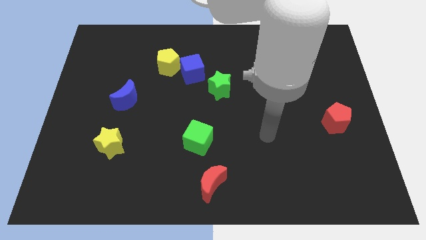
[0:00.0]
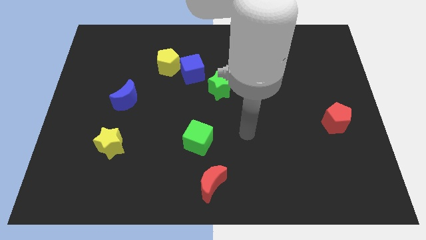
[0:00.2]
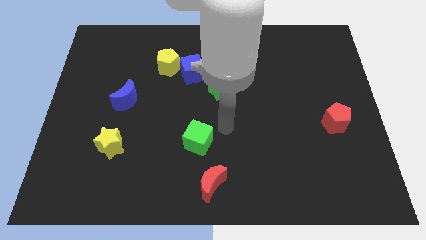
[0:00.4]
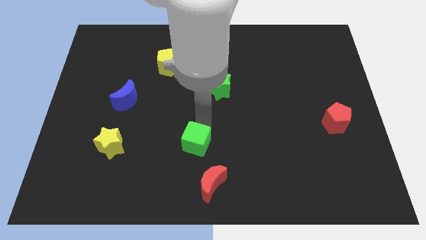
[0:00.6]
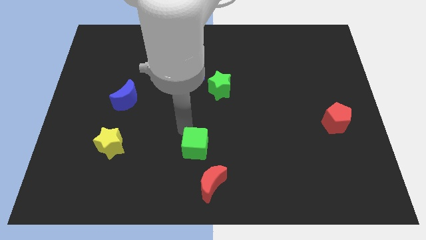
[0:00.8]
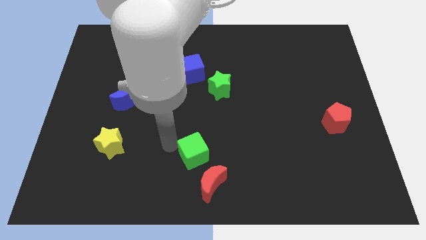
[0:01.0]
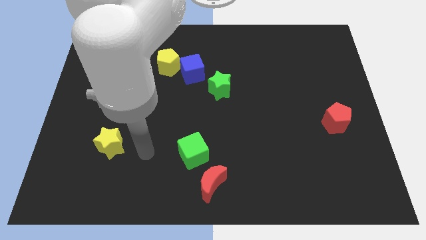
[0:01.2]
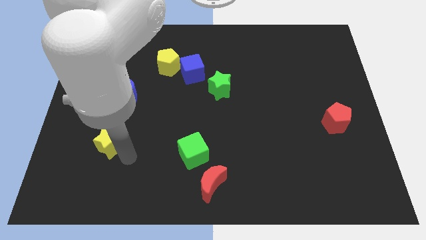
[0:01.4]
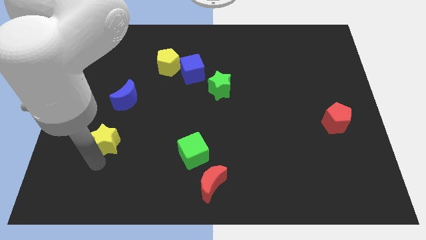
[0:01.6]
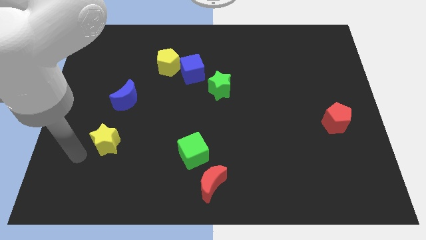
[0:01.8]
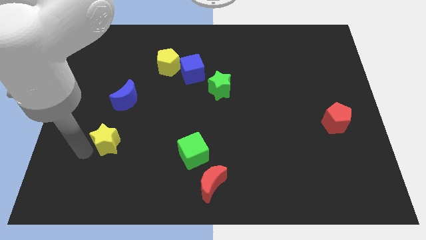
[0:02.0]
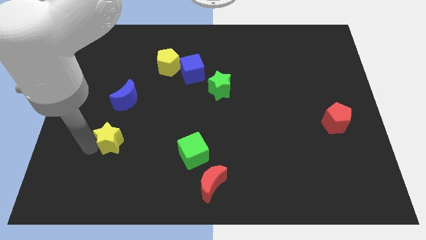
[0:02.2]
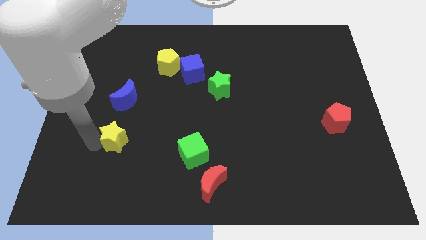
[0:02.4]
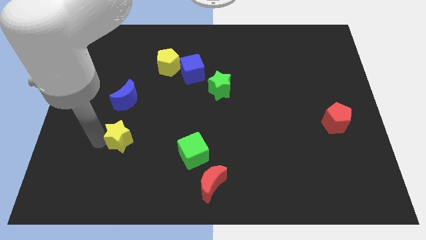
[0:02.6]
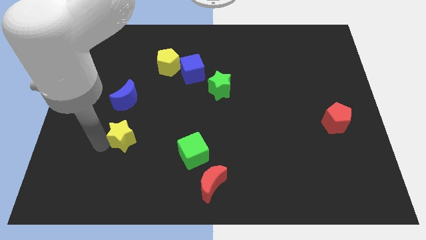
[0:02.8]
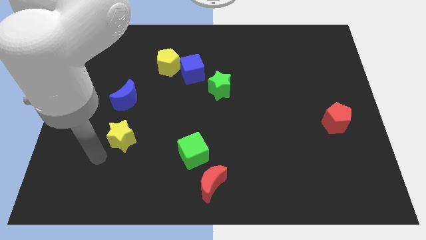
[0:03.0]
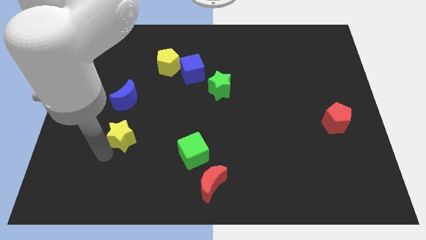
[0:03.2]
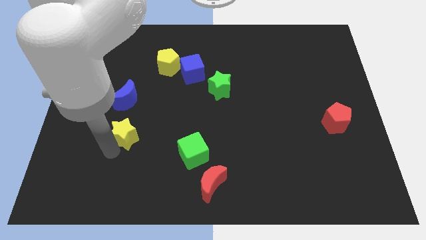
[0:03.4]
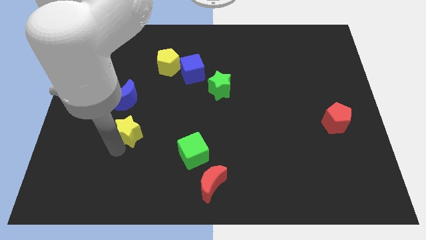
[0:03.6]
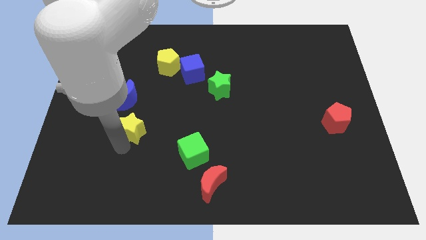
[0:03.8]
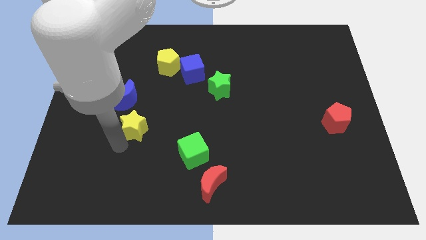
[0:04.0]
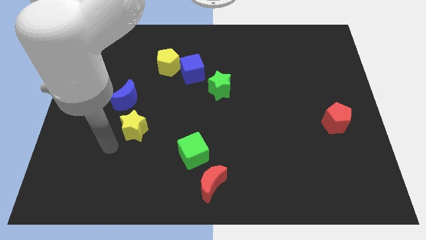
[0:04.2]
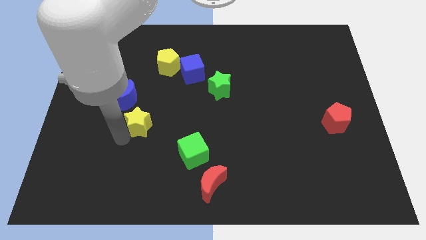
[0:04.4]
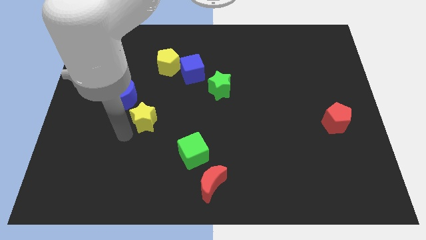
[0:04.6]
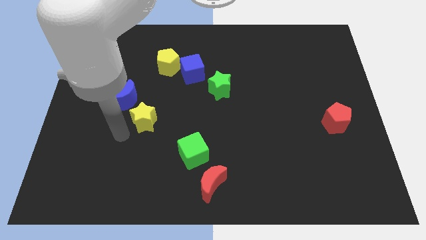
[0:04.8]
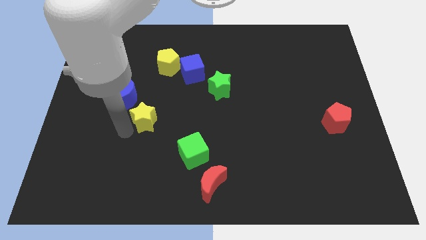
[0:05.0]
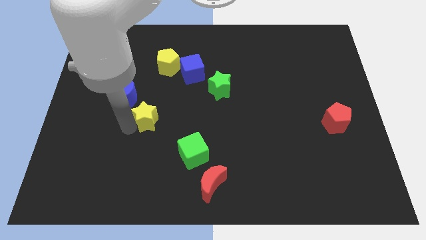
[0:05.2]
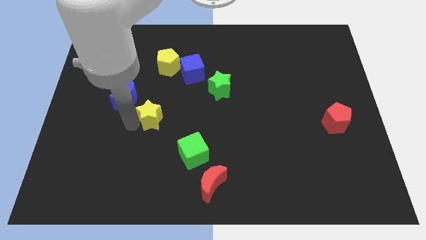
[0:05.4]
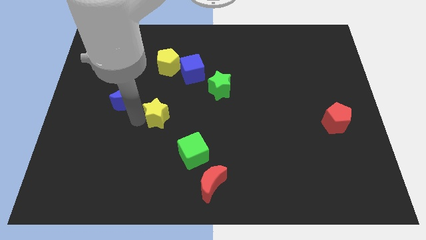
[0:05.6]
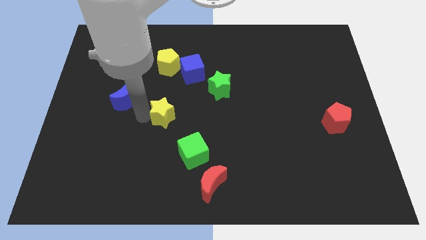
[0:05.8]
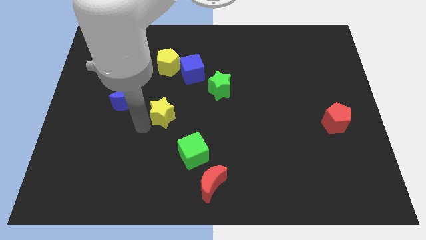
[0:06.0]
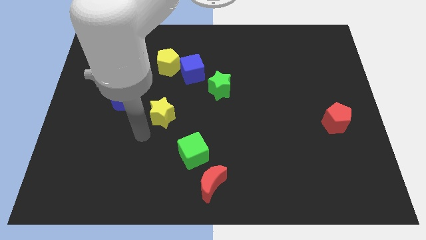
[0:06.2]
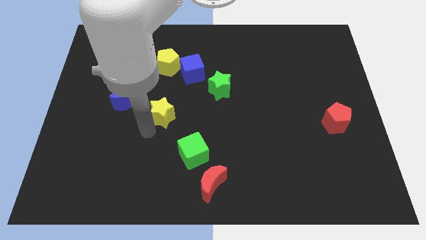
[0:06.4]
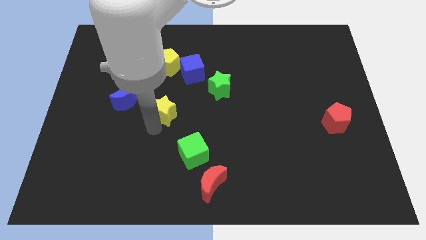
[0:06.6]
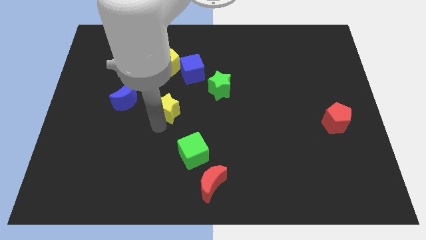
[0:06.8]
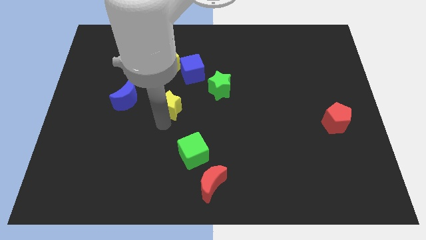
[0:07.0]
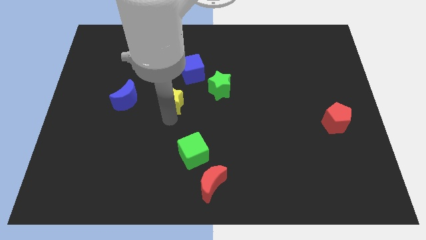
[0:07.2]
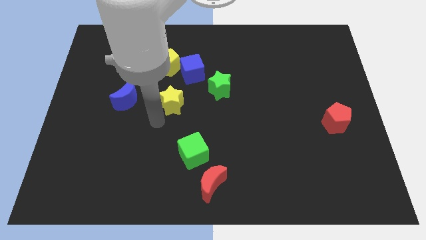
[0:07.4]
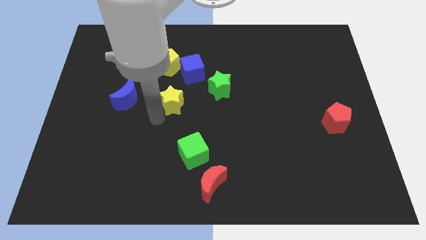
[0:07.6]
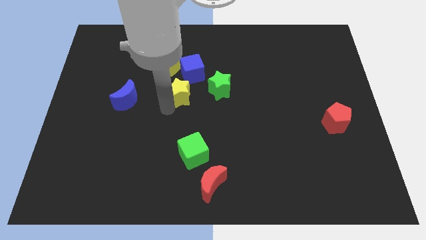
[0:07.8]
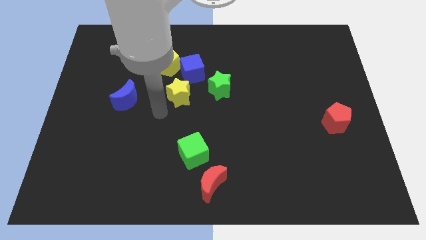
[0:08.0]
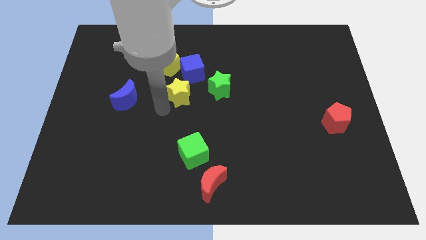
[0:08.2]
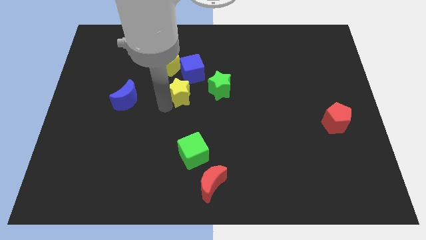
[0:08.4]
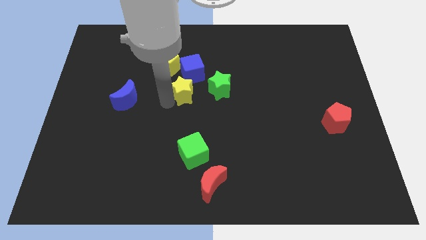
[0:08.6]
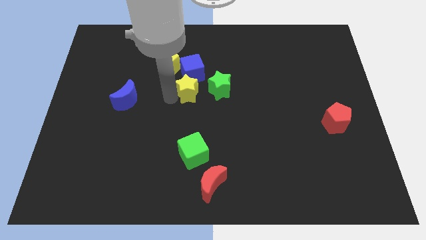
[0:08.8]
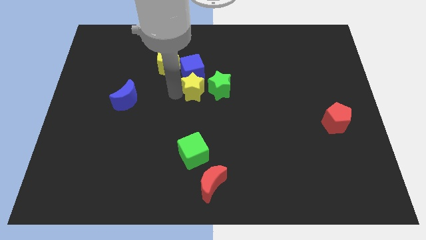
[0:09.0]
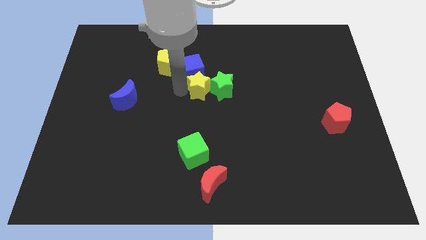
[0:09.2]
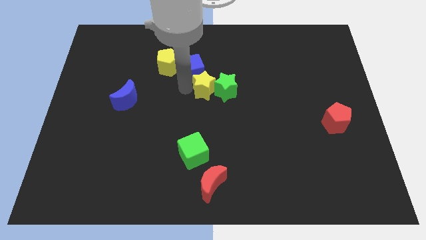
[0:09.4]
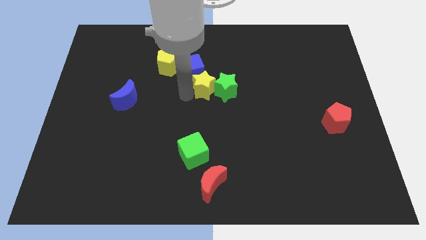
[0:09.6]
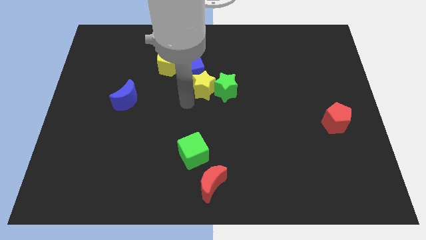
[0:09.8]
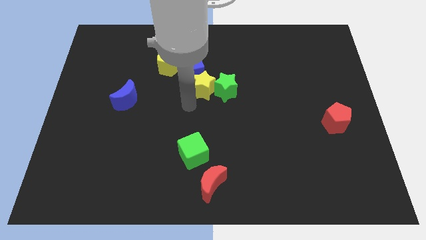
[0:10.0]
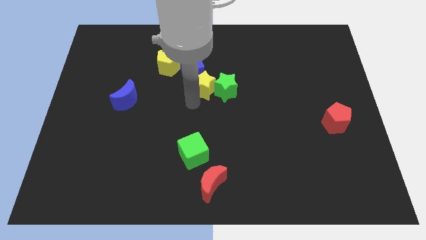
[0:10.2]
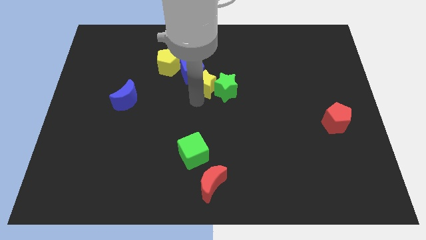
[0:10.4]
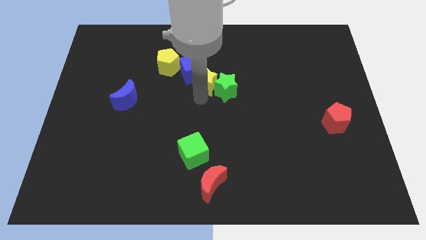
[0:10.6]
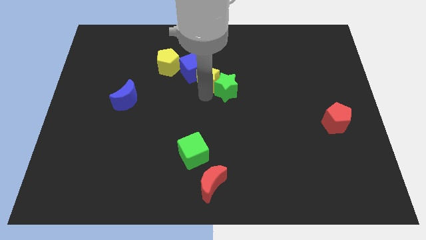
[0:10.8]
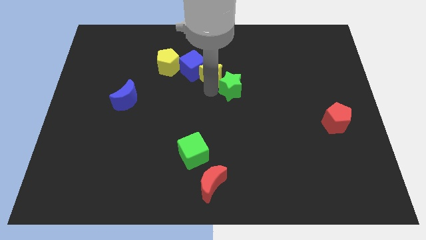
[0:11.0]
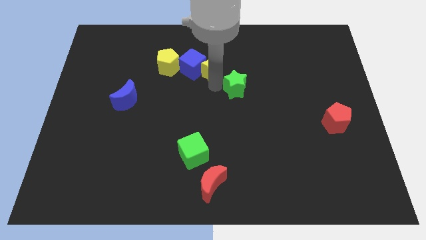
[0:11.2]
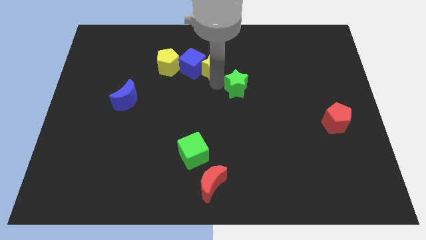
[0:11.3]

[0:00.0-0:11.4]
push the yellow star to the top right side of the blue cube

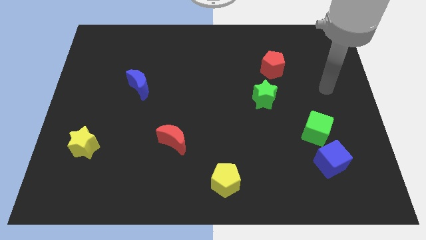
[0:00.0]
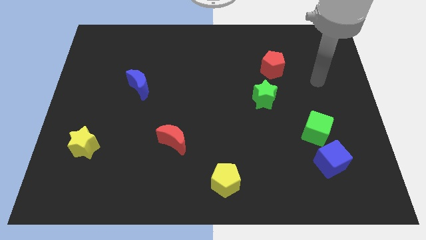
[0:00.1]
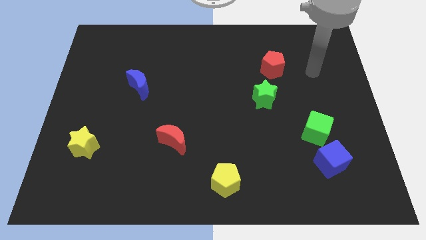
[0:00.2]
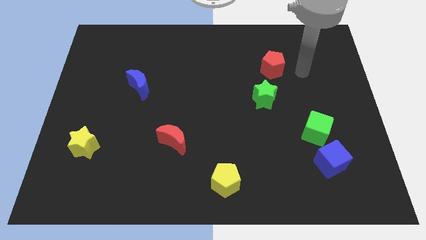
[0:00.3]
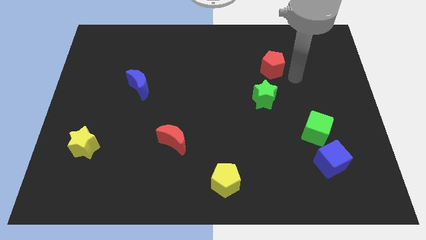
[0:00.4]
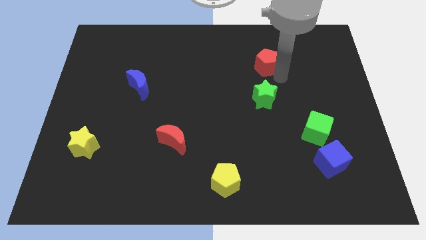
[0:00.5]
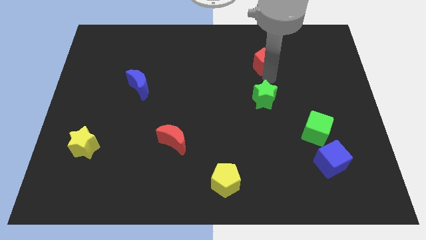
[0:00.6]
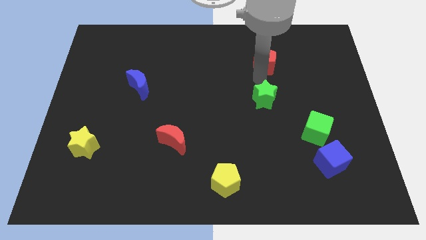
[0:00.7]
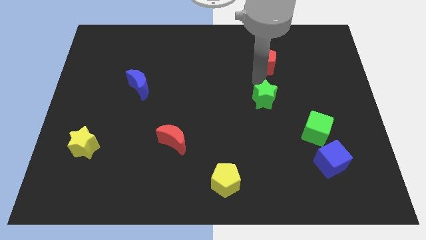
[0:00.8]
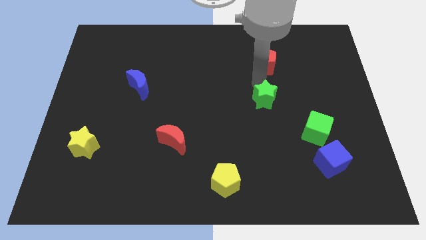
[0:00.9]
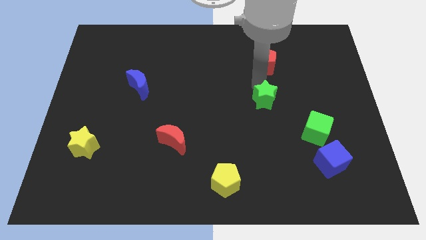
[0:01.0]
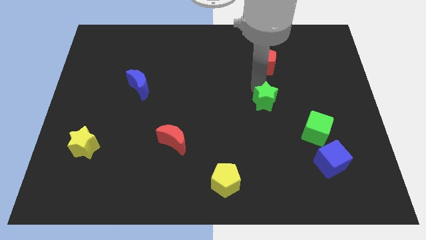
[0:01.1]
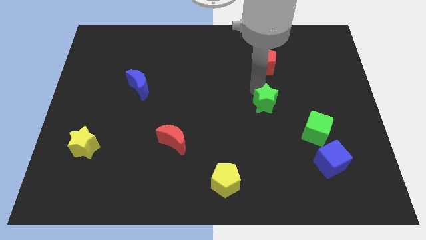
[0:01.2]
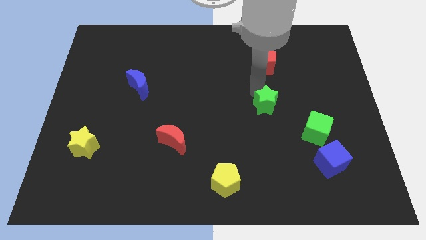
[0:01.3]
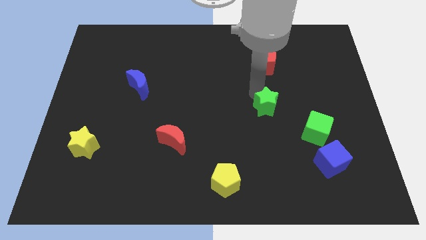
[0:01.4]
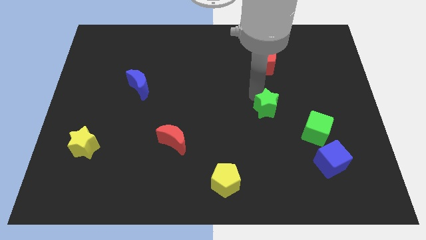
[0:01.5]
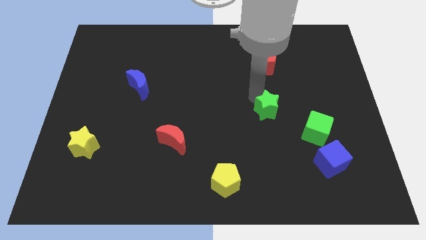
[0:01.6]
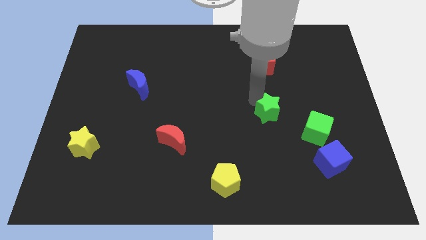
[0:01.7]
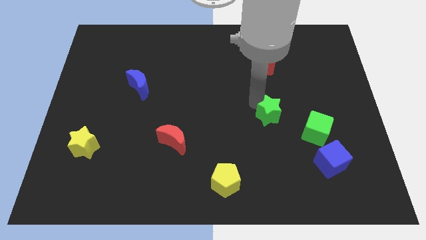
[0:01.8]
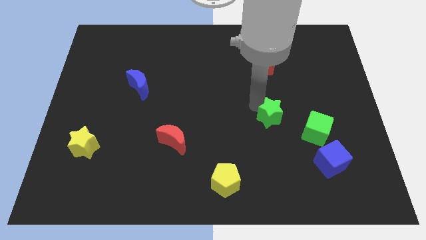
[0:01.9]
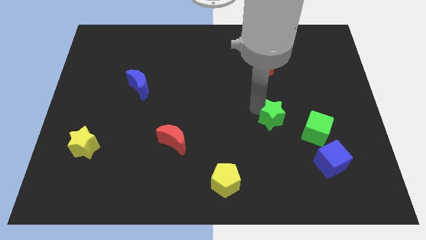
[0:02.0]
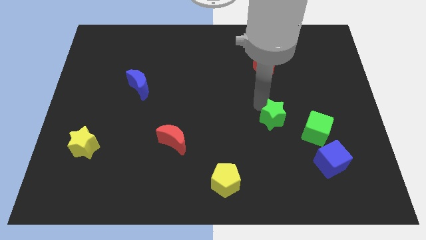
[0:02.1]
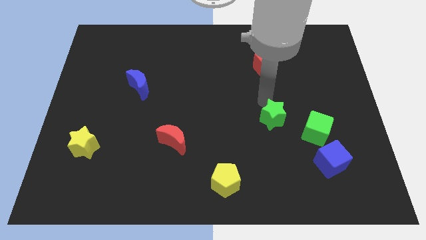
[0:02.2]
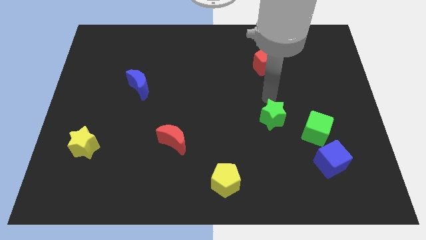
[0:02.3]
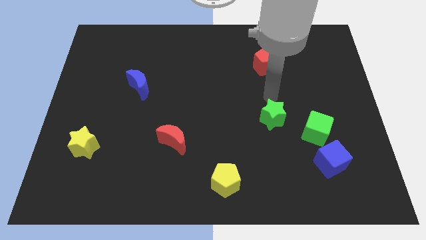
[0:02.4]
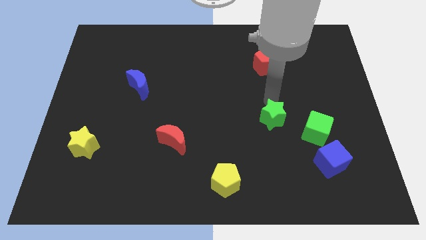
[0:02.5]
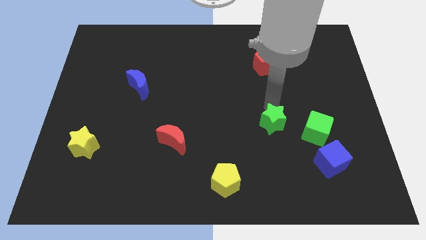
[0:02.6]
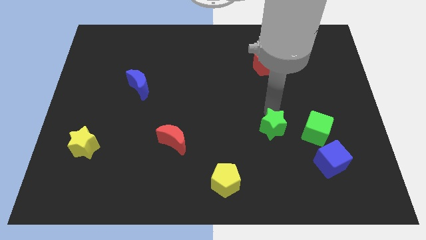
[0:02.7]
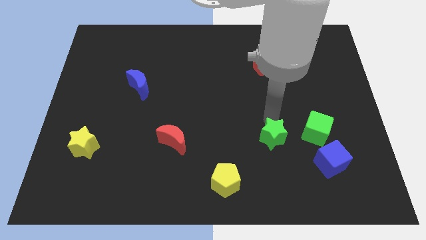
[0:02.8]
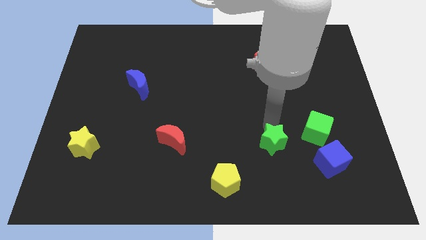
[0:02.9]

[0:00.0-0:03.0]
put the green star left of the blue cube

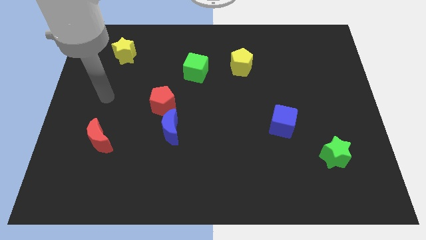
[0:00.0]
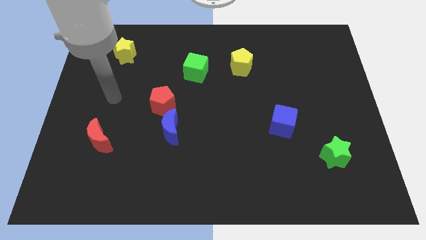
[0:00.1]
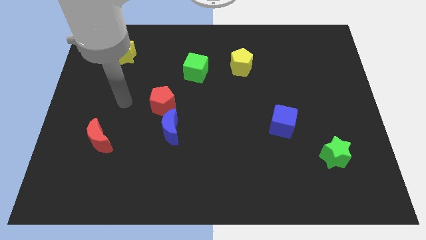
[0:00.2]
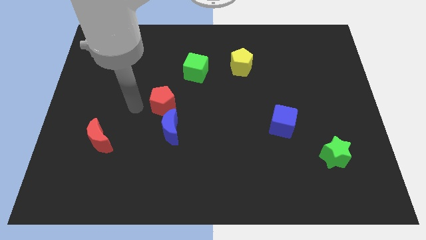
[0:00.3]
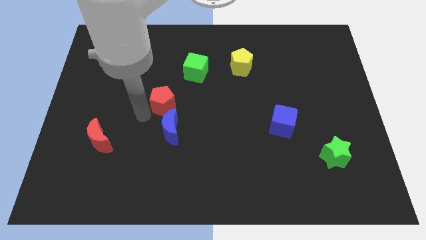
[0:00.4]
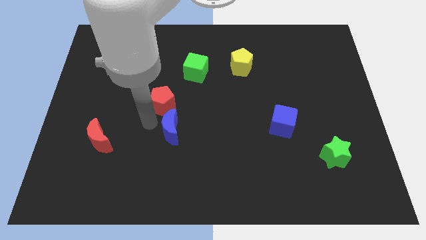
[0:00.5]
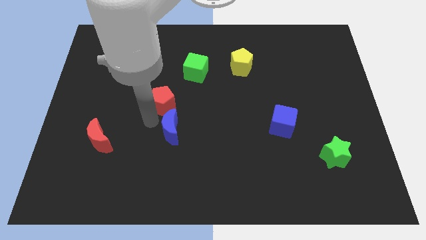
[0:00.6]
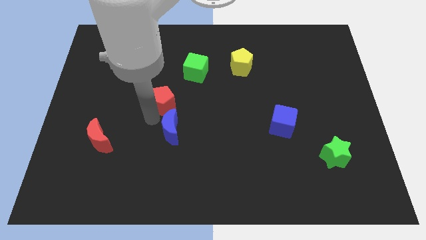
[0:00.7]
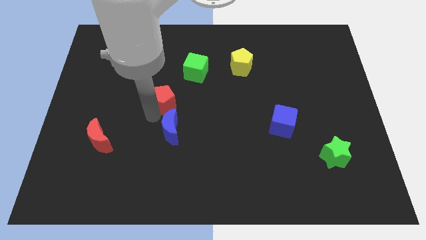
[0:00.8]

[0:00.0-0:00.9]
put the red pentagon to the bottom left side of the green cube
